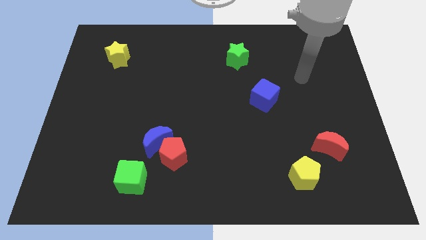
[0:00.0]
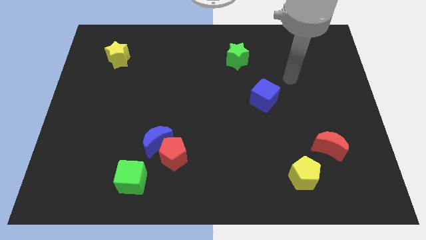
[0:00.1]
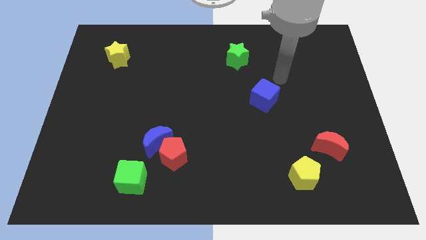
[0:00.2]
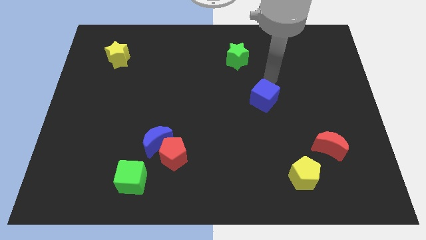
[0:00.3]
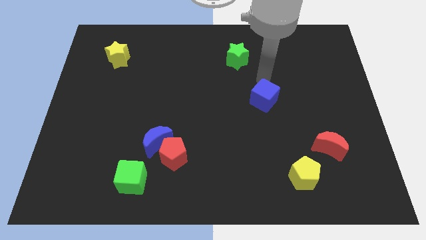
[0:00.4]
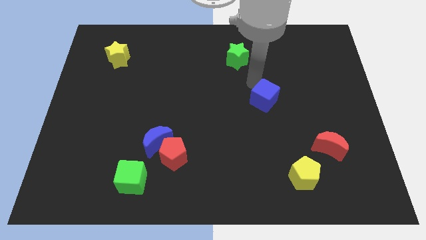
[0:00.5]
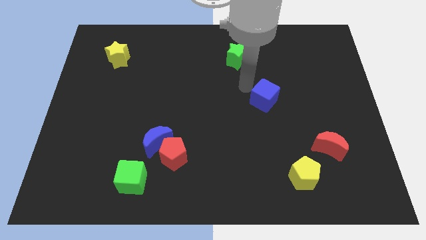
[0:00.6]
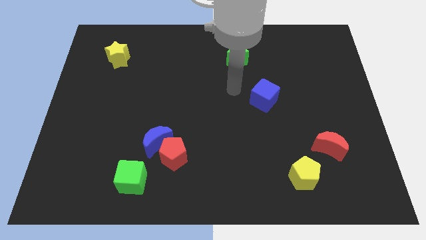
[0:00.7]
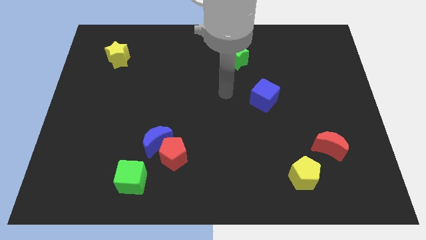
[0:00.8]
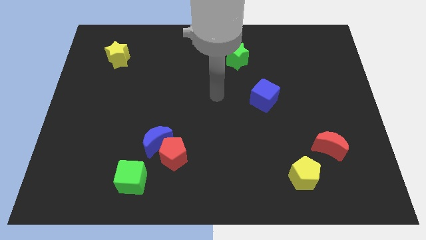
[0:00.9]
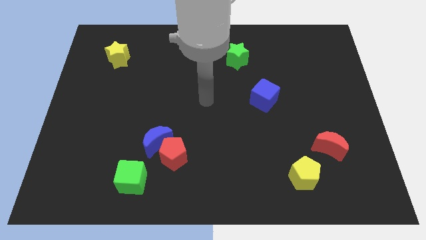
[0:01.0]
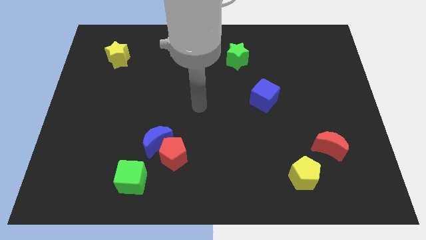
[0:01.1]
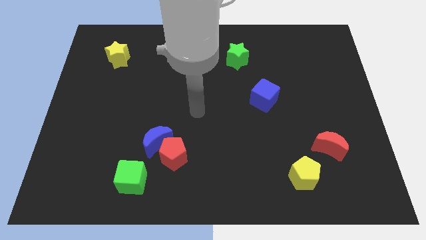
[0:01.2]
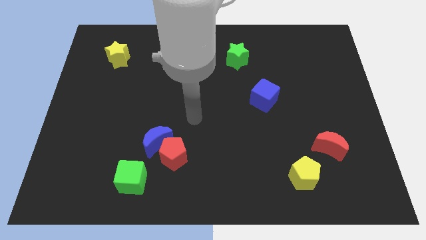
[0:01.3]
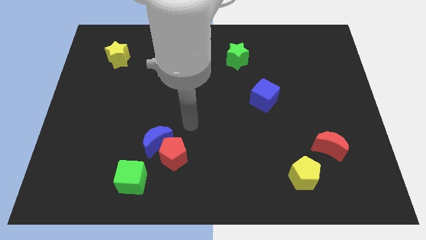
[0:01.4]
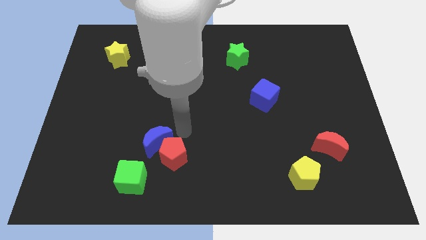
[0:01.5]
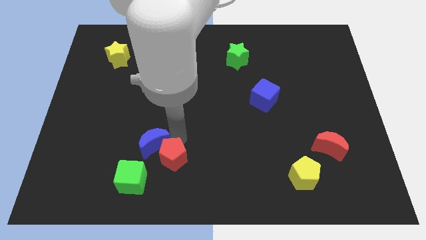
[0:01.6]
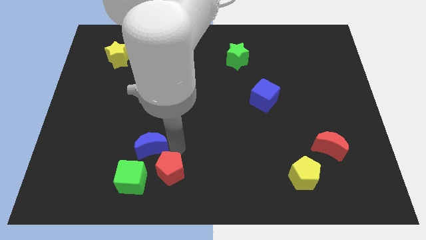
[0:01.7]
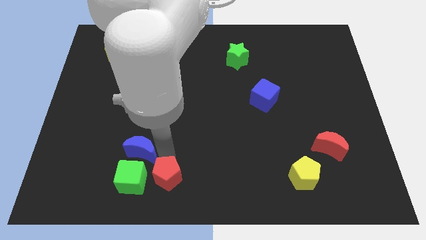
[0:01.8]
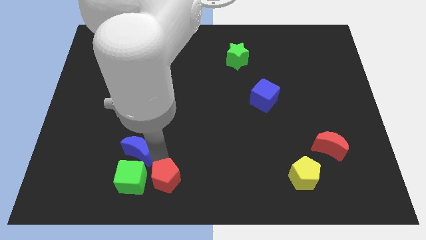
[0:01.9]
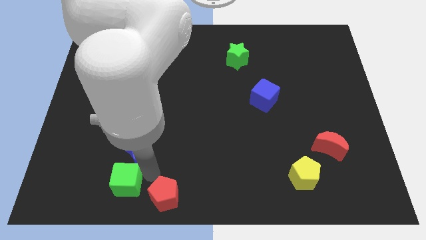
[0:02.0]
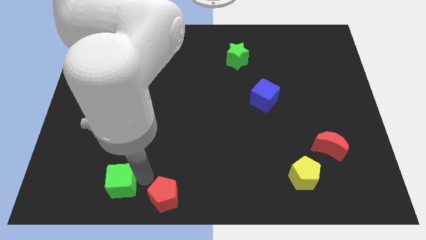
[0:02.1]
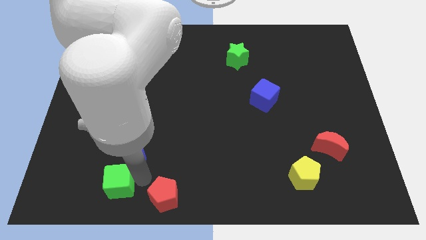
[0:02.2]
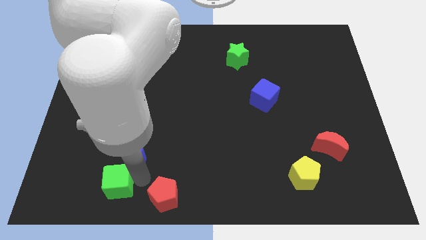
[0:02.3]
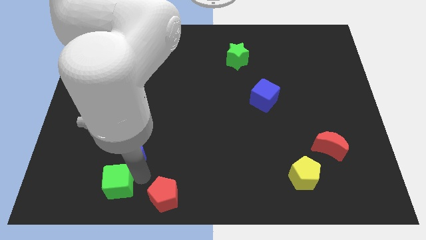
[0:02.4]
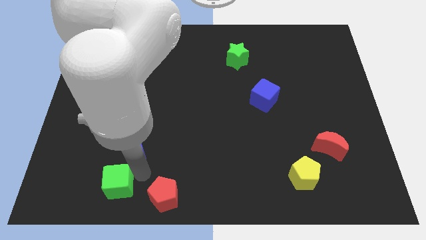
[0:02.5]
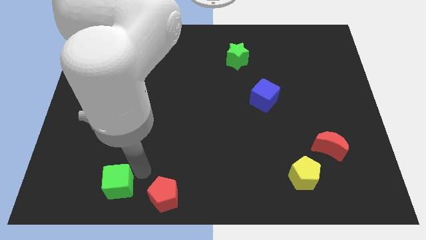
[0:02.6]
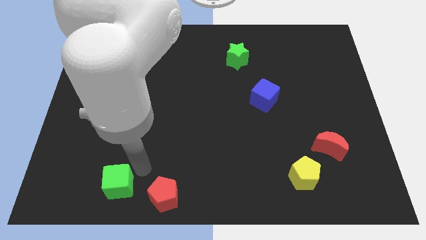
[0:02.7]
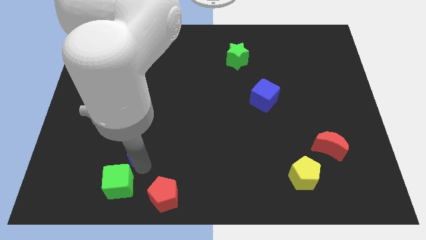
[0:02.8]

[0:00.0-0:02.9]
separate the blue moon from the red pentagon and green cube

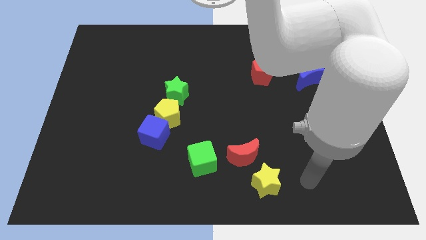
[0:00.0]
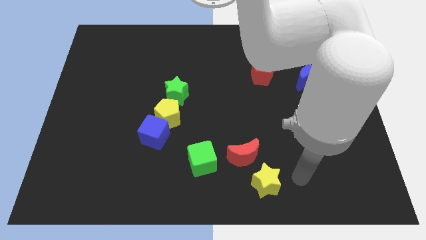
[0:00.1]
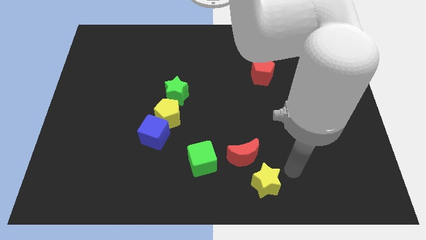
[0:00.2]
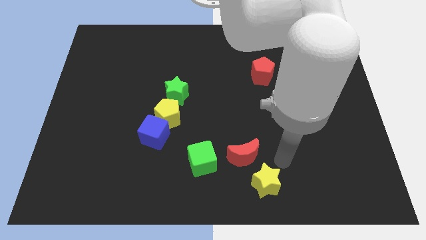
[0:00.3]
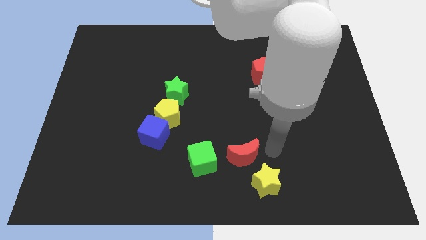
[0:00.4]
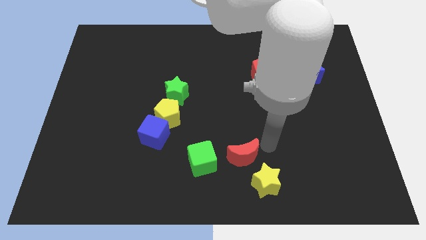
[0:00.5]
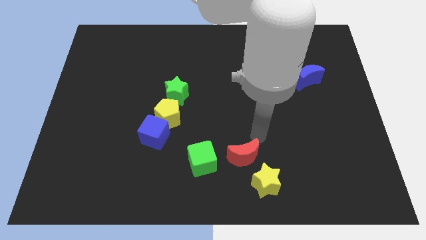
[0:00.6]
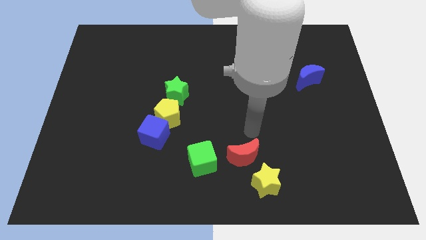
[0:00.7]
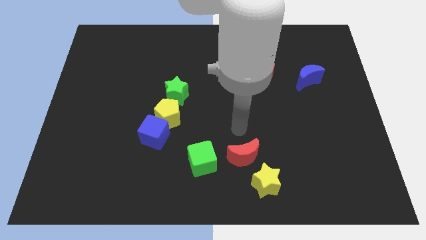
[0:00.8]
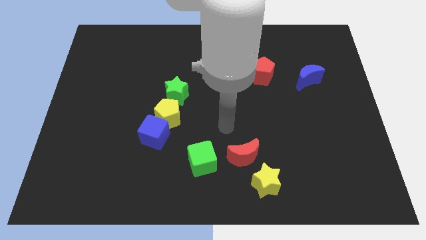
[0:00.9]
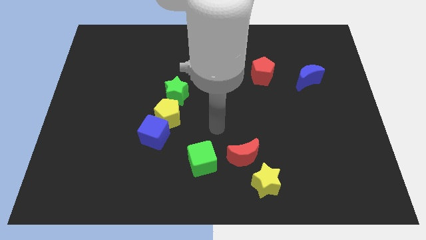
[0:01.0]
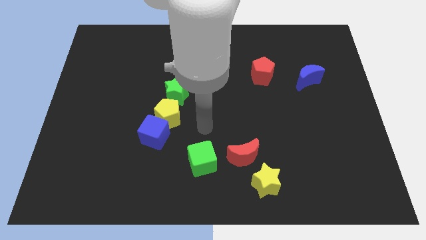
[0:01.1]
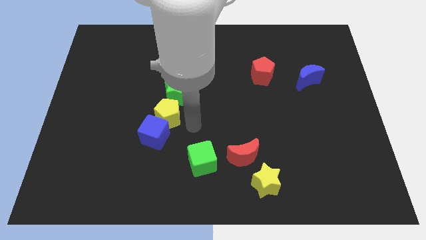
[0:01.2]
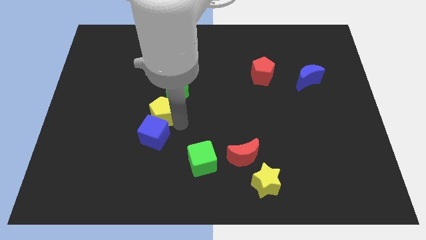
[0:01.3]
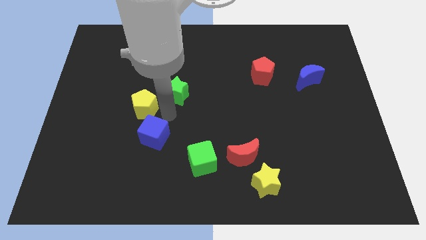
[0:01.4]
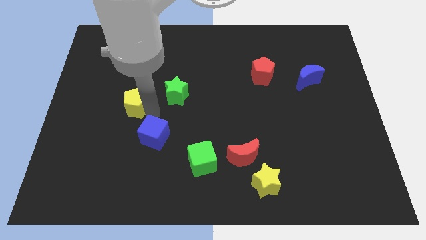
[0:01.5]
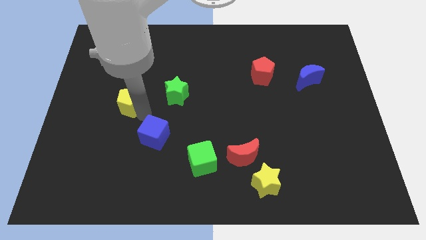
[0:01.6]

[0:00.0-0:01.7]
move the blue cube away from the yellow pentagon

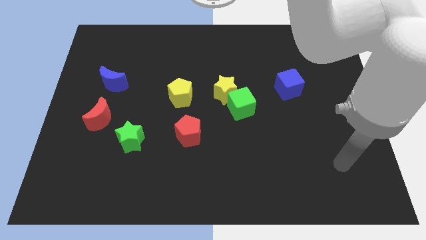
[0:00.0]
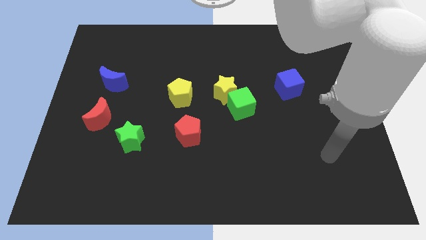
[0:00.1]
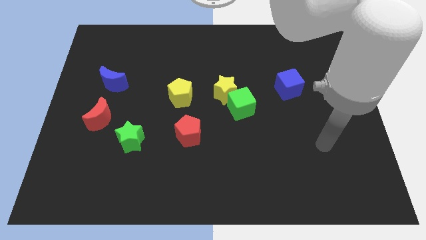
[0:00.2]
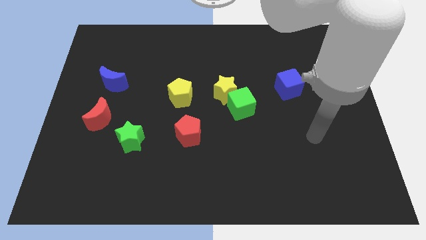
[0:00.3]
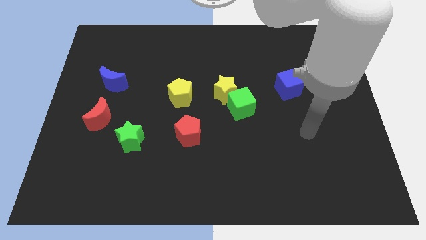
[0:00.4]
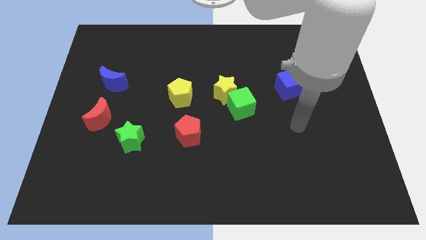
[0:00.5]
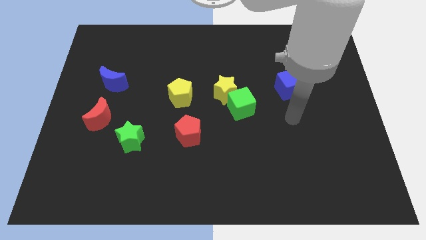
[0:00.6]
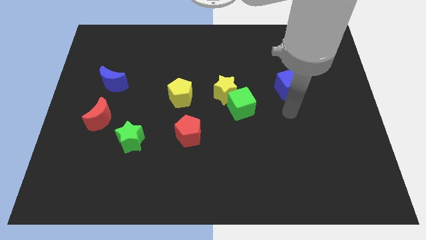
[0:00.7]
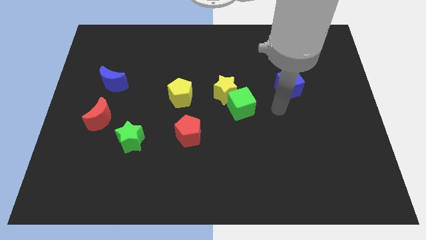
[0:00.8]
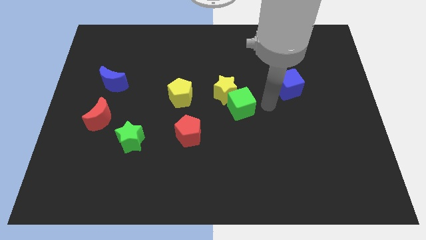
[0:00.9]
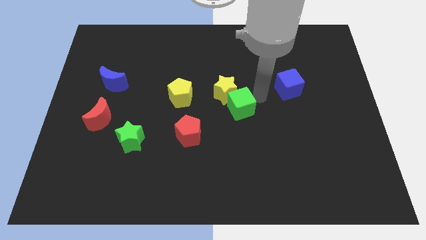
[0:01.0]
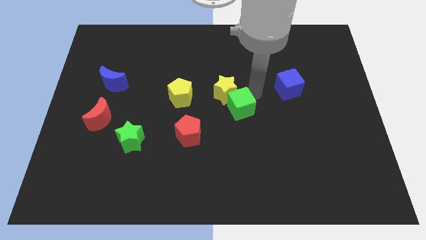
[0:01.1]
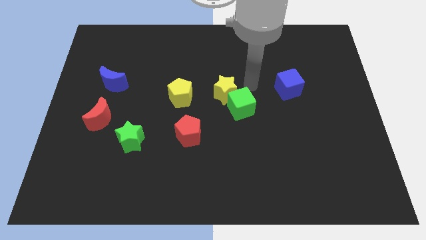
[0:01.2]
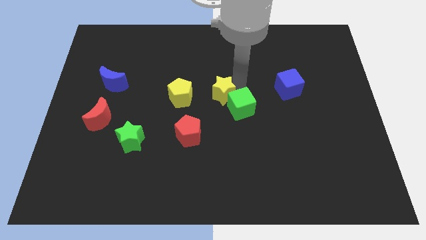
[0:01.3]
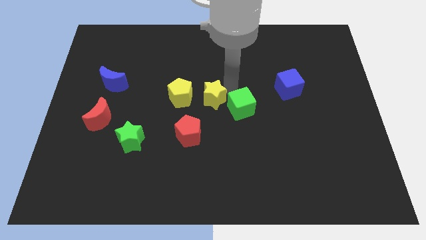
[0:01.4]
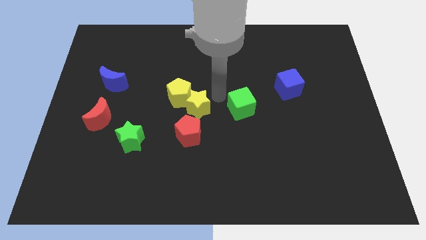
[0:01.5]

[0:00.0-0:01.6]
separate the green cube from the yellow star

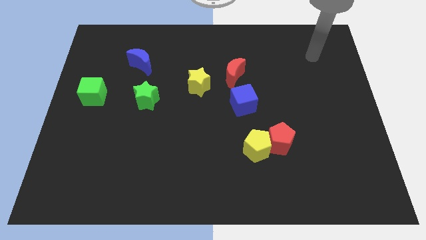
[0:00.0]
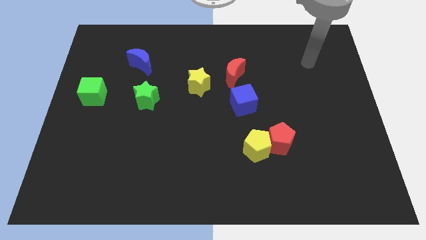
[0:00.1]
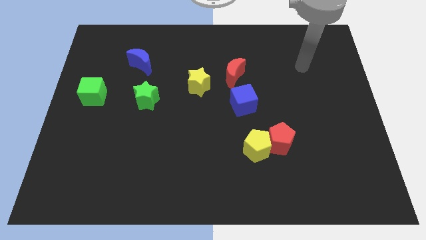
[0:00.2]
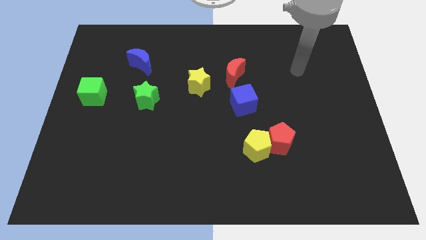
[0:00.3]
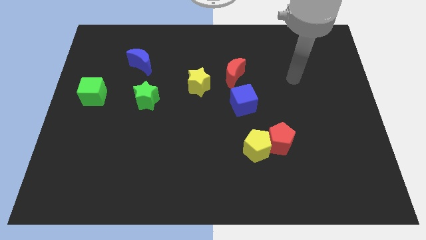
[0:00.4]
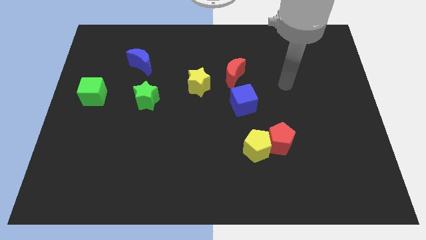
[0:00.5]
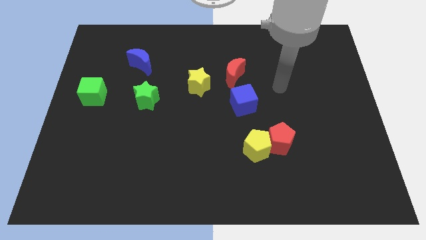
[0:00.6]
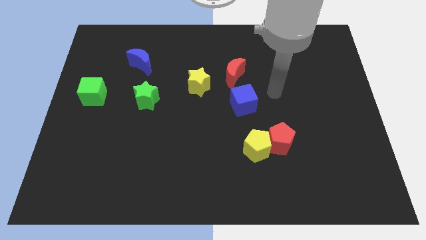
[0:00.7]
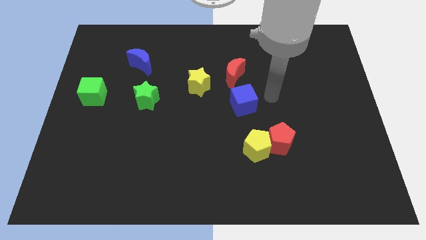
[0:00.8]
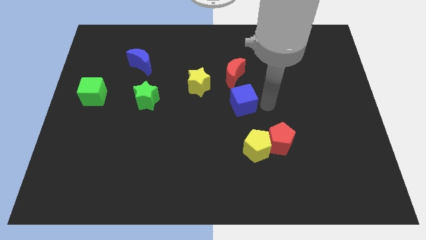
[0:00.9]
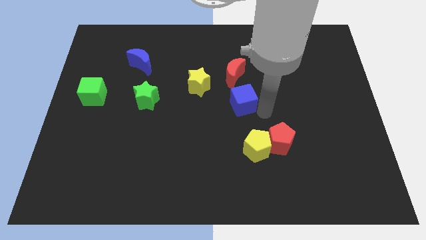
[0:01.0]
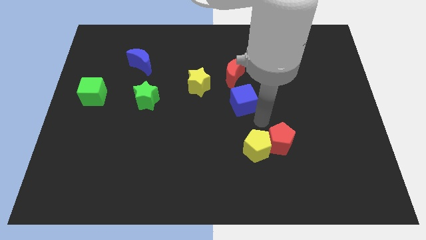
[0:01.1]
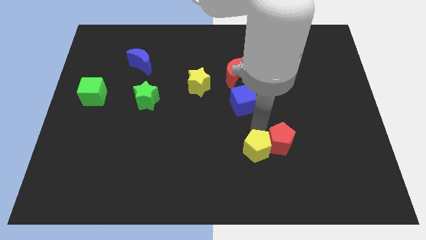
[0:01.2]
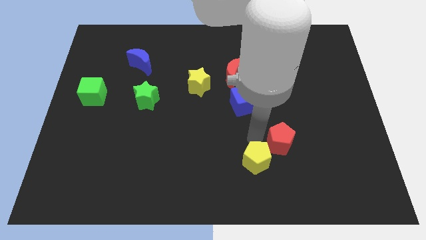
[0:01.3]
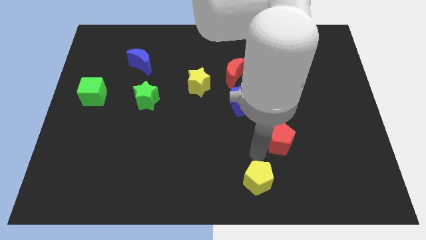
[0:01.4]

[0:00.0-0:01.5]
move the red pentagon away from the yellow pentagon

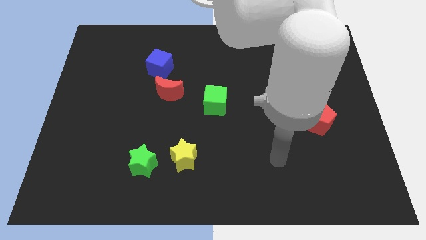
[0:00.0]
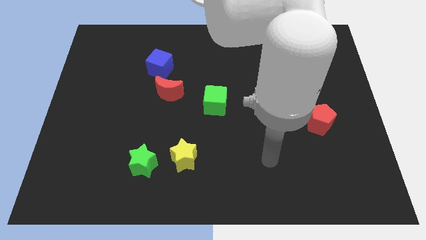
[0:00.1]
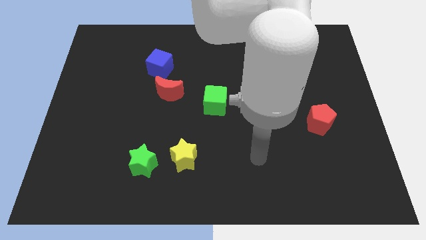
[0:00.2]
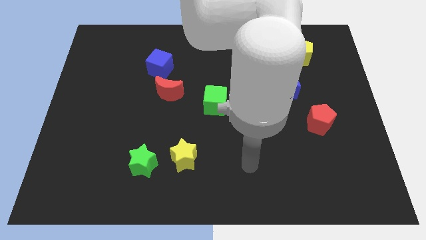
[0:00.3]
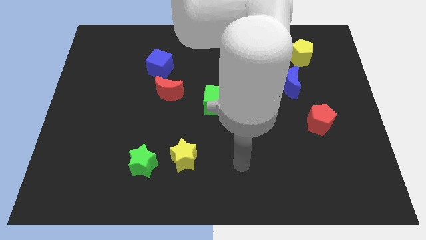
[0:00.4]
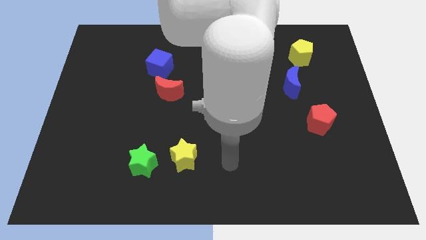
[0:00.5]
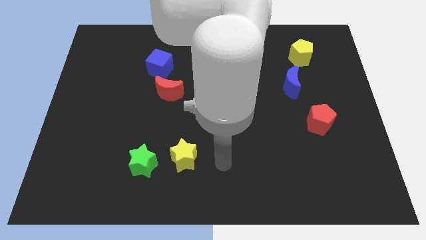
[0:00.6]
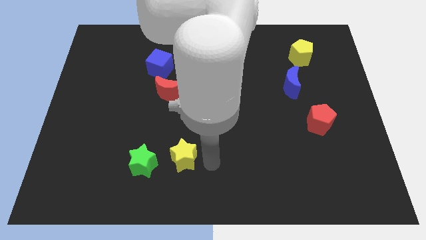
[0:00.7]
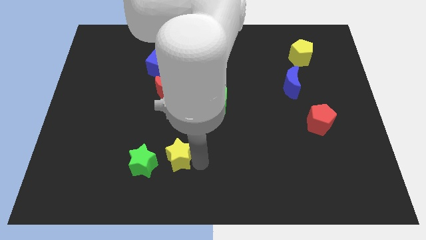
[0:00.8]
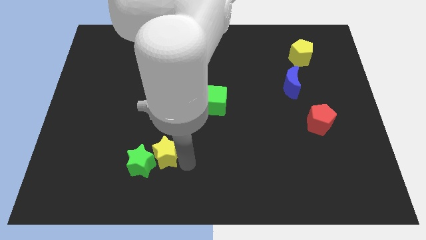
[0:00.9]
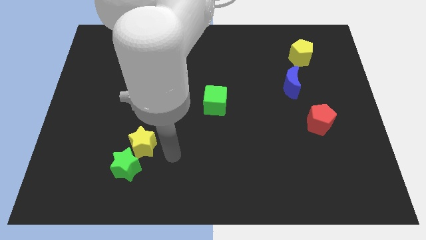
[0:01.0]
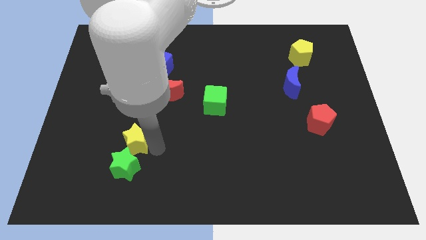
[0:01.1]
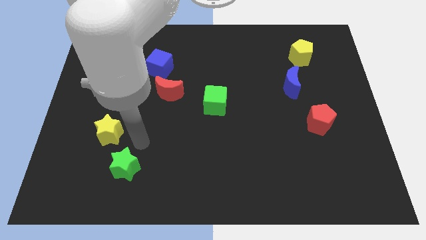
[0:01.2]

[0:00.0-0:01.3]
separate the green star from the yellow star

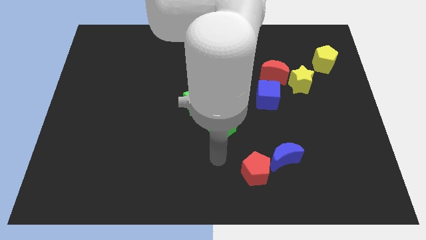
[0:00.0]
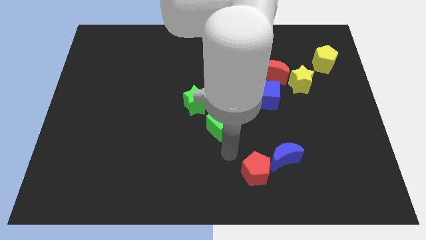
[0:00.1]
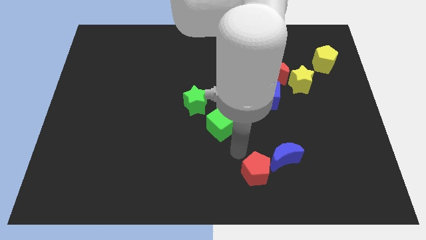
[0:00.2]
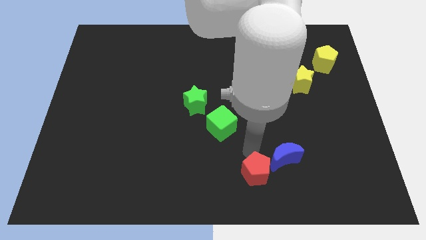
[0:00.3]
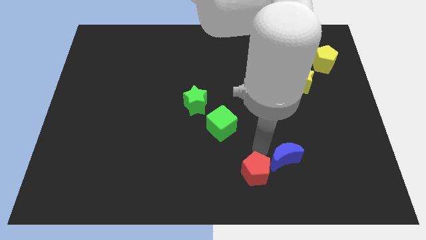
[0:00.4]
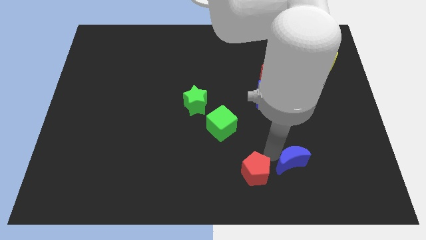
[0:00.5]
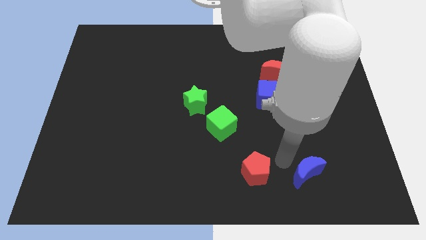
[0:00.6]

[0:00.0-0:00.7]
separate the red pentagon from the blue moon
